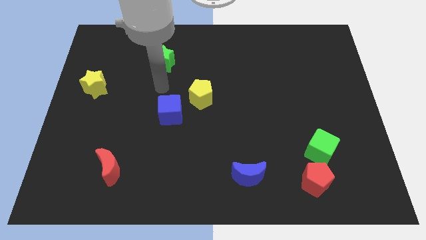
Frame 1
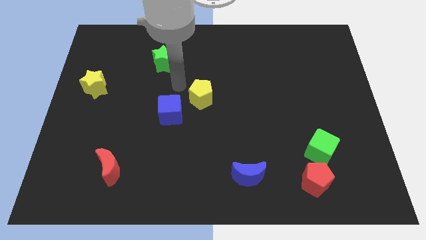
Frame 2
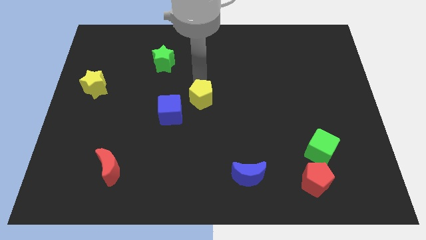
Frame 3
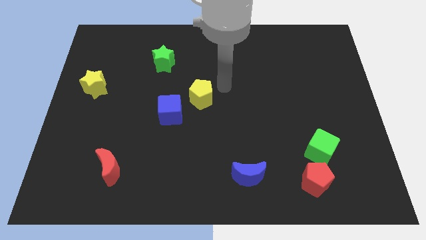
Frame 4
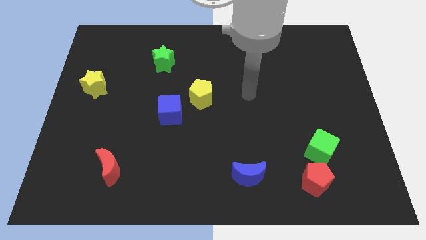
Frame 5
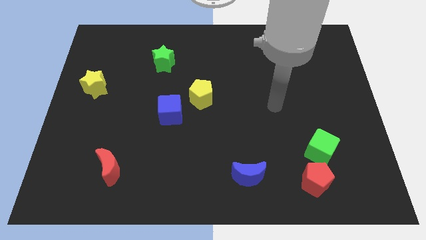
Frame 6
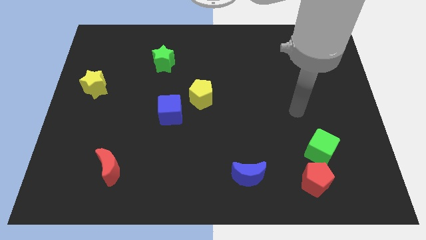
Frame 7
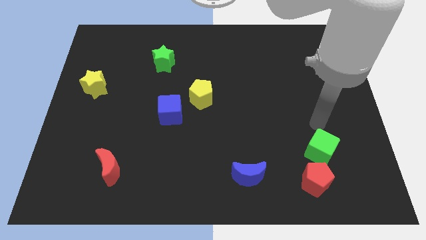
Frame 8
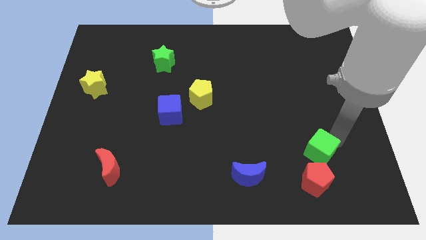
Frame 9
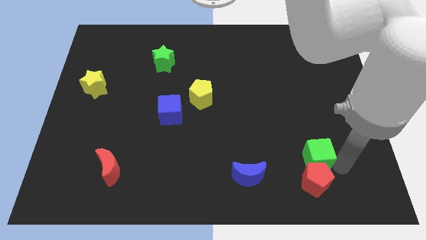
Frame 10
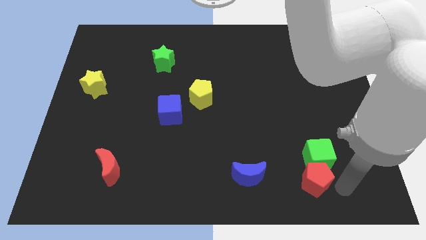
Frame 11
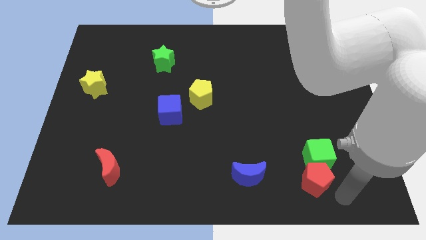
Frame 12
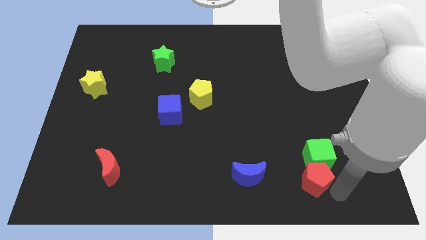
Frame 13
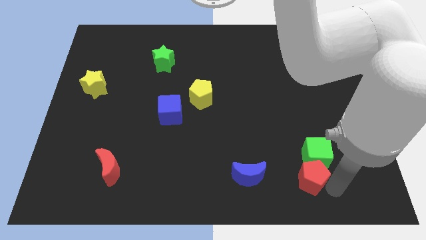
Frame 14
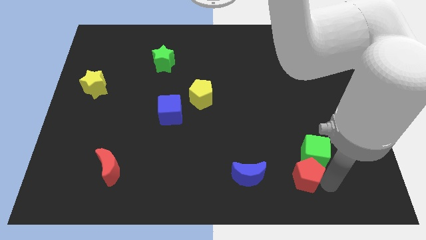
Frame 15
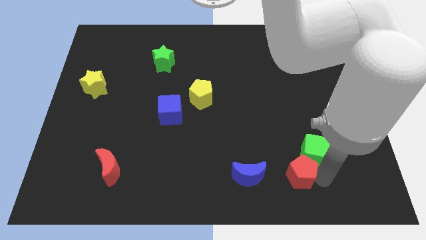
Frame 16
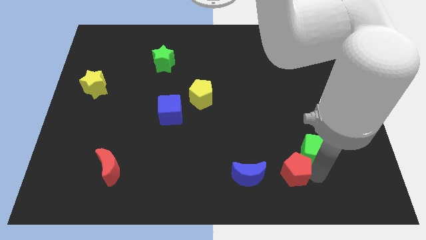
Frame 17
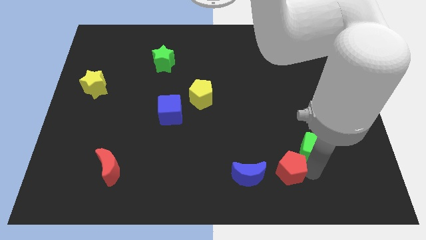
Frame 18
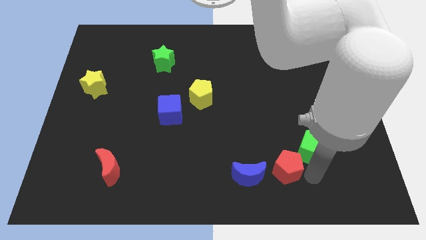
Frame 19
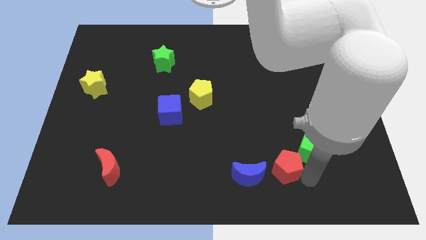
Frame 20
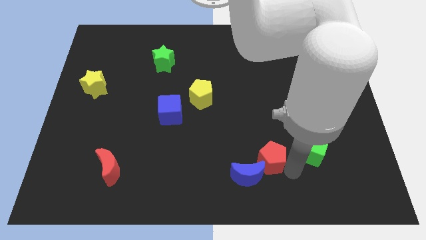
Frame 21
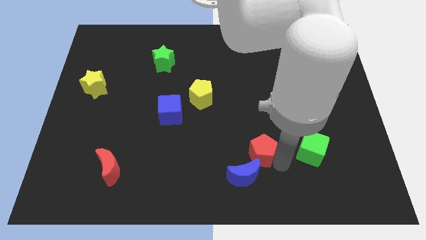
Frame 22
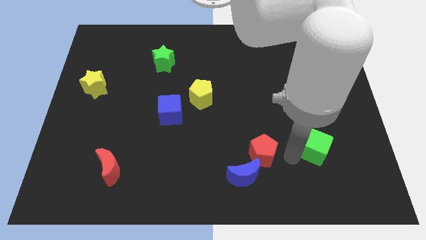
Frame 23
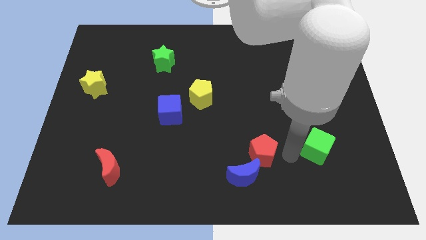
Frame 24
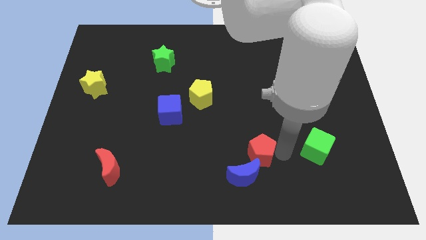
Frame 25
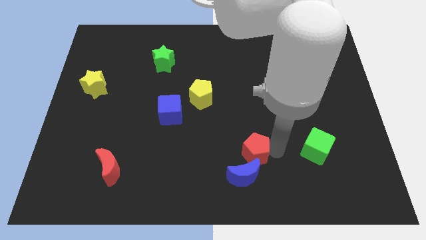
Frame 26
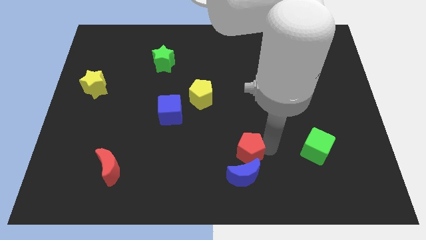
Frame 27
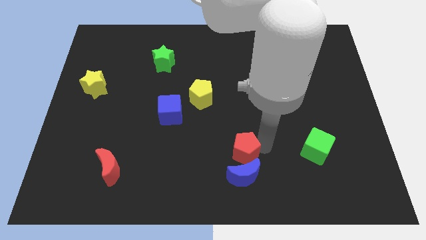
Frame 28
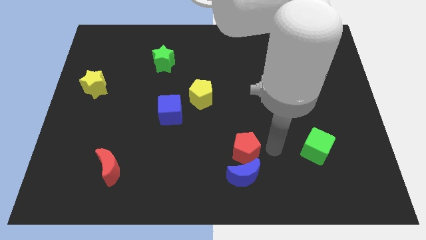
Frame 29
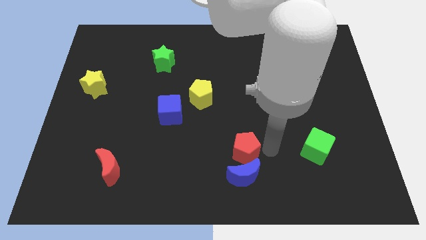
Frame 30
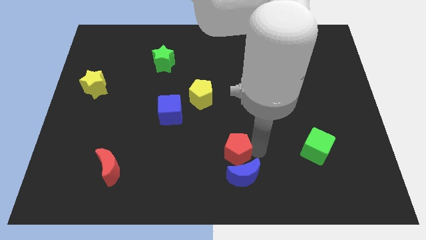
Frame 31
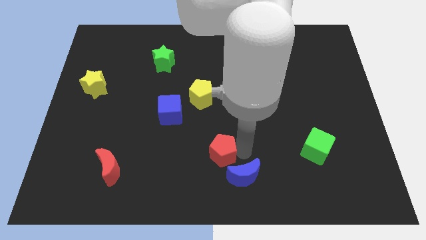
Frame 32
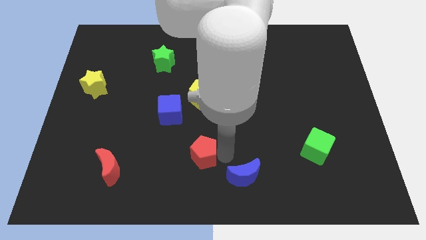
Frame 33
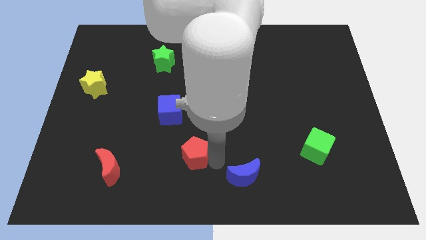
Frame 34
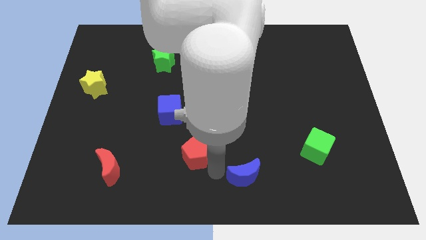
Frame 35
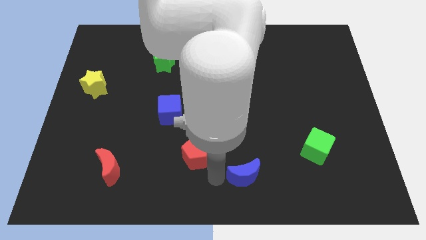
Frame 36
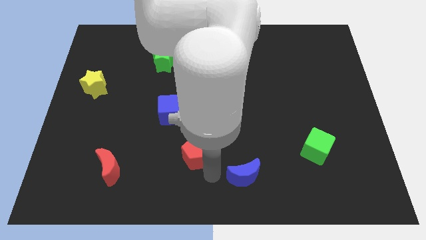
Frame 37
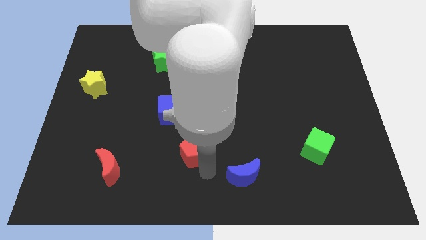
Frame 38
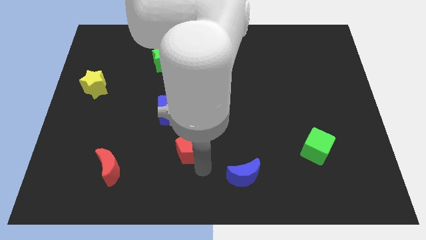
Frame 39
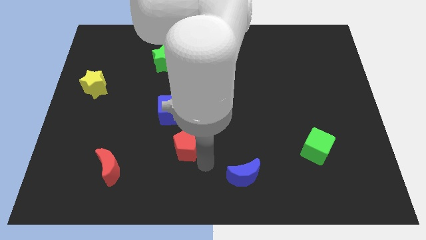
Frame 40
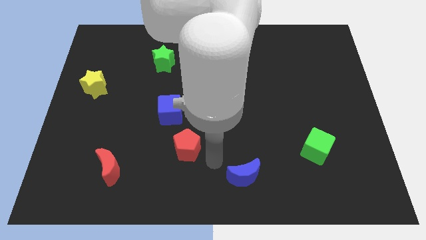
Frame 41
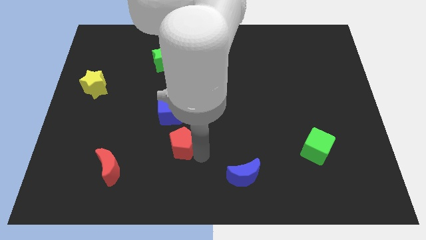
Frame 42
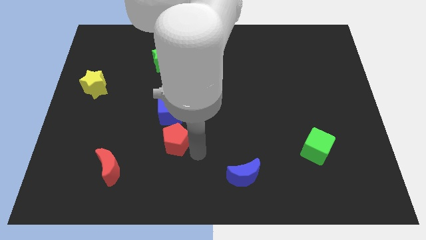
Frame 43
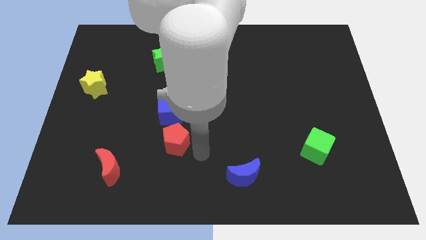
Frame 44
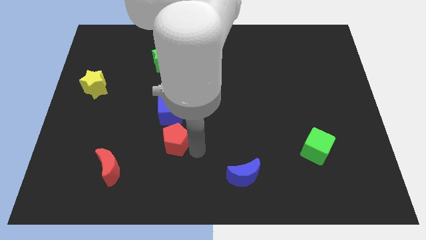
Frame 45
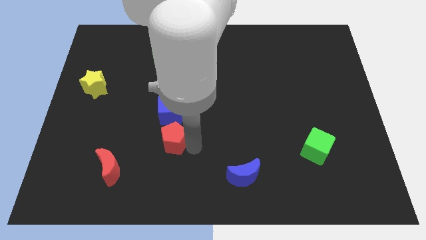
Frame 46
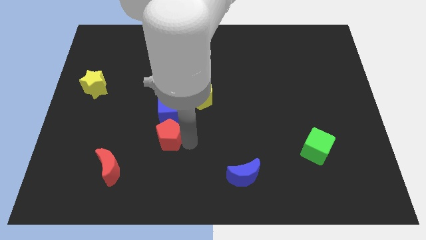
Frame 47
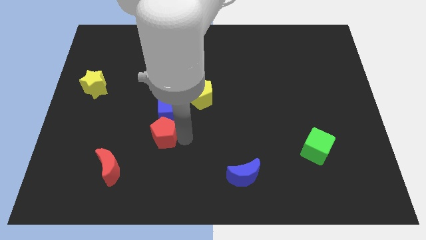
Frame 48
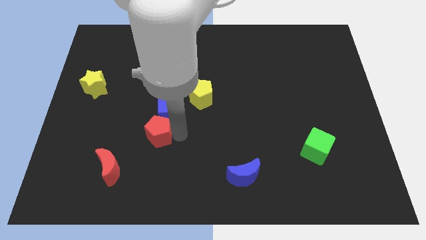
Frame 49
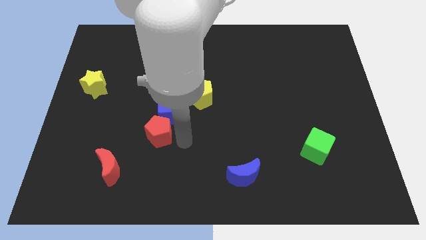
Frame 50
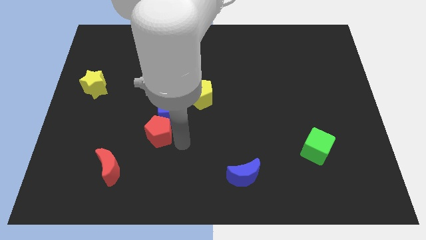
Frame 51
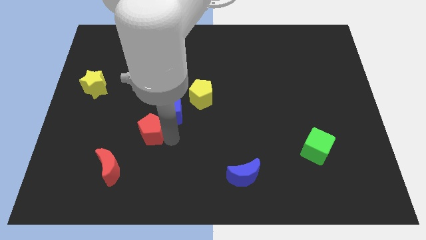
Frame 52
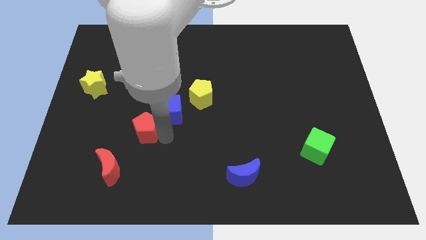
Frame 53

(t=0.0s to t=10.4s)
move the red pentagon to the left side of the blue cube

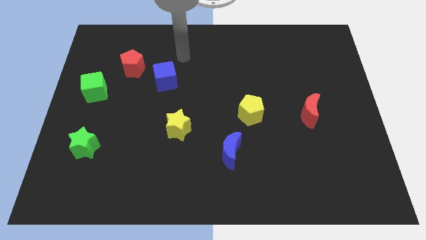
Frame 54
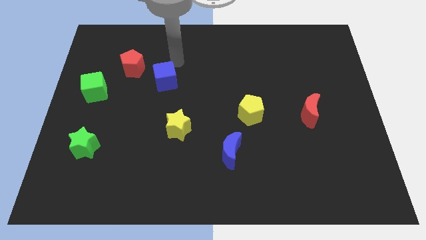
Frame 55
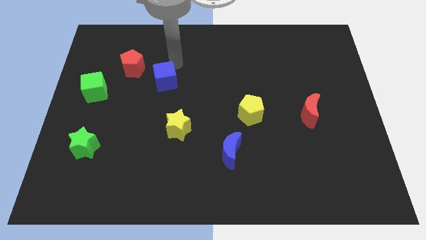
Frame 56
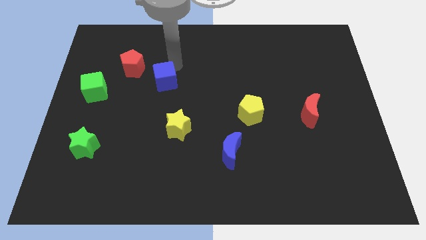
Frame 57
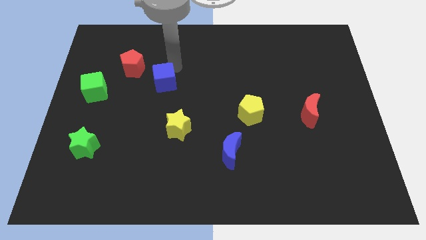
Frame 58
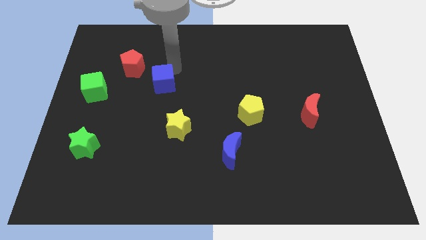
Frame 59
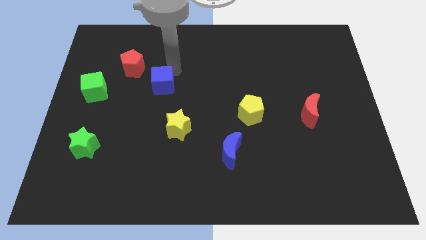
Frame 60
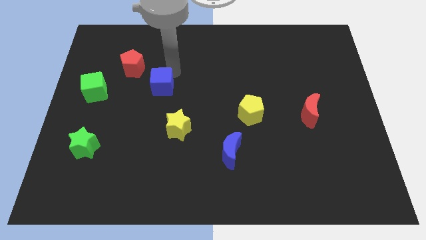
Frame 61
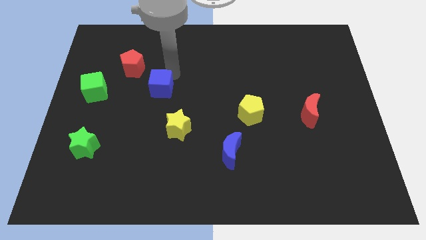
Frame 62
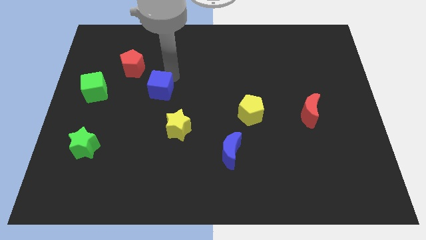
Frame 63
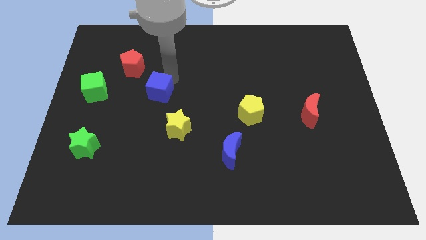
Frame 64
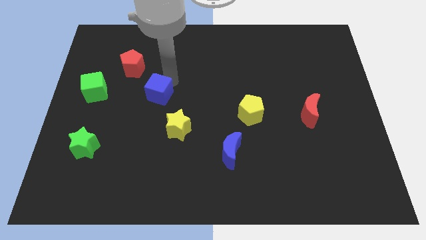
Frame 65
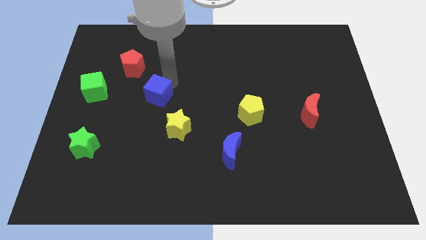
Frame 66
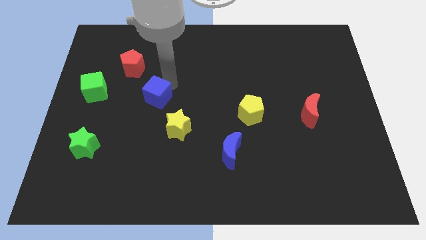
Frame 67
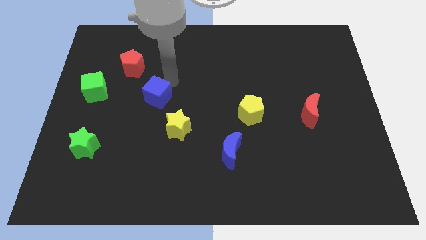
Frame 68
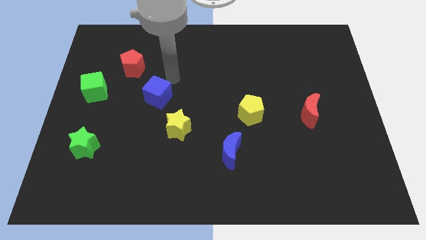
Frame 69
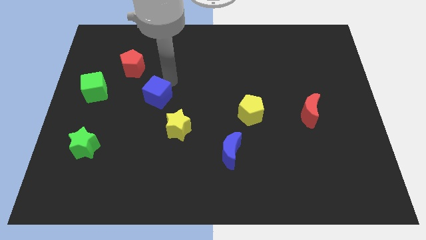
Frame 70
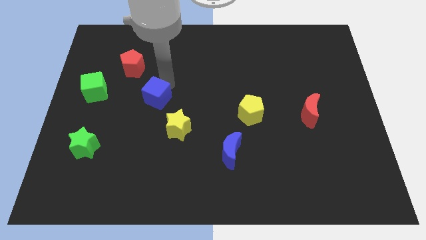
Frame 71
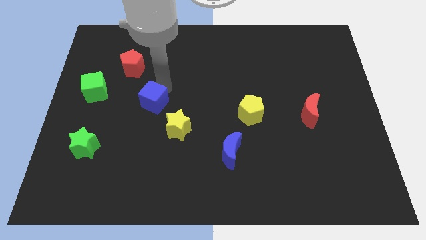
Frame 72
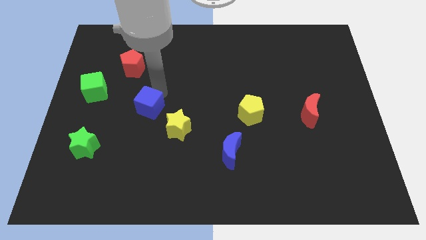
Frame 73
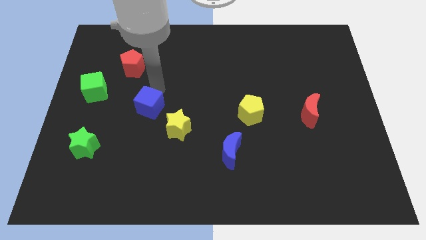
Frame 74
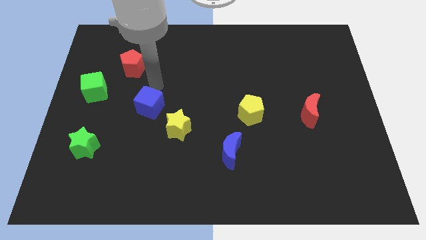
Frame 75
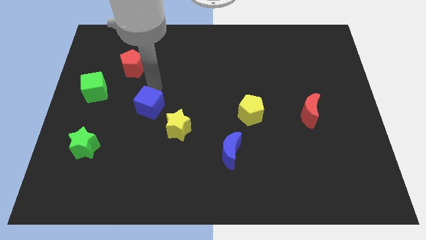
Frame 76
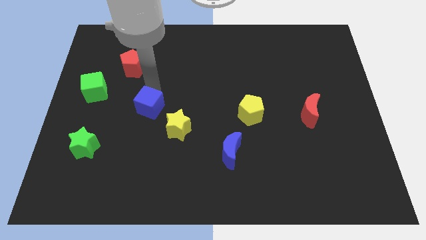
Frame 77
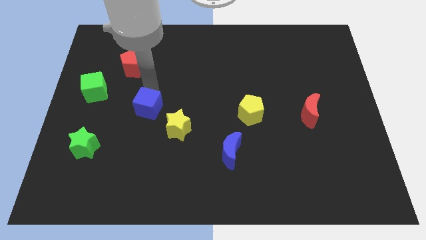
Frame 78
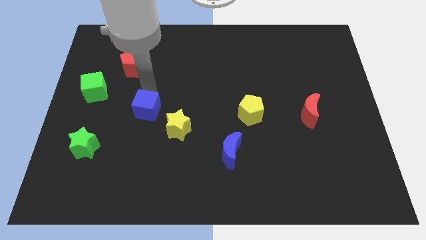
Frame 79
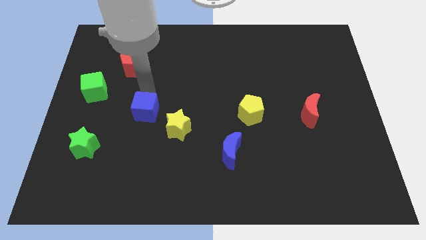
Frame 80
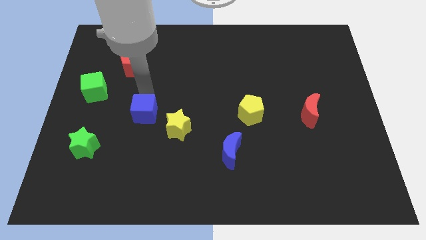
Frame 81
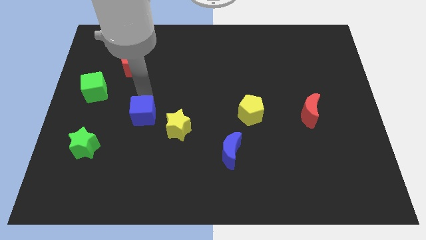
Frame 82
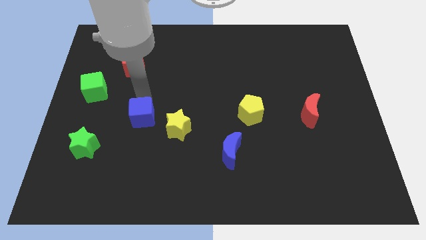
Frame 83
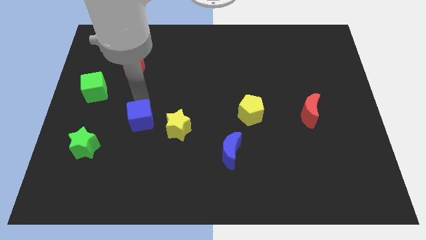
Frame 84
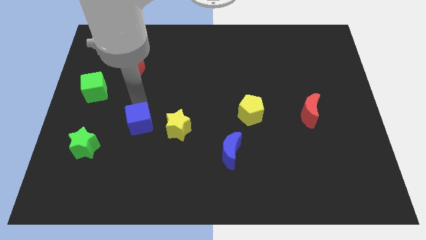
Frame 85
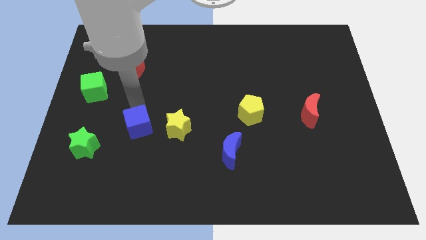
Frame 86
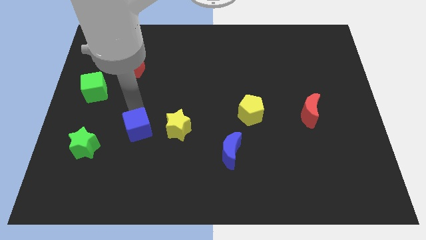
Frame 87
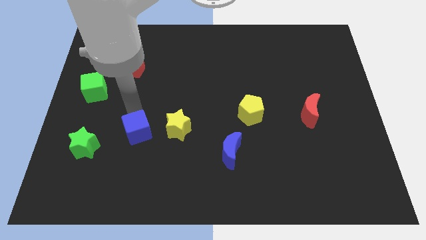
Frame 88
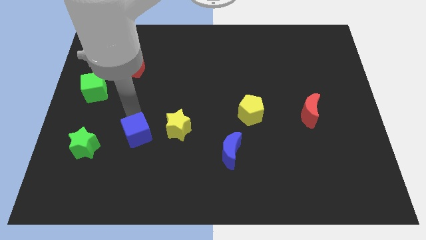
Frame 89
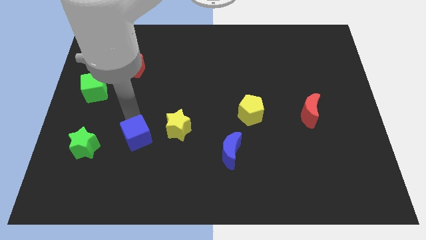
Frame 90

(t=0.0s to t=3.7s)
slide the blue cube to the bottom left of the yellow star
